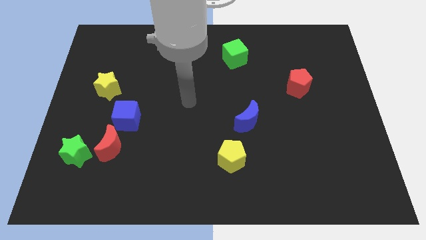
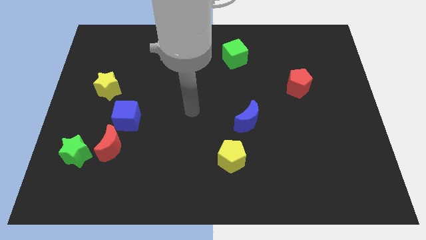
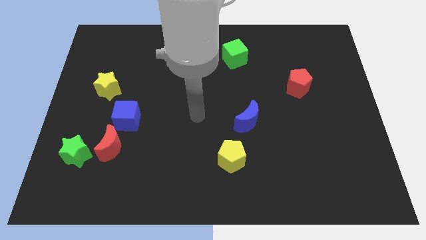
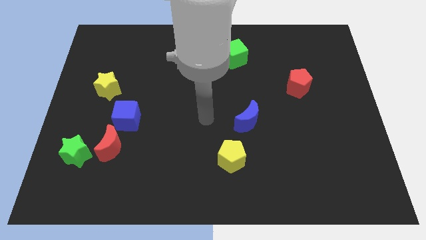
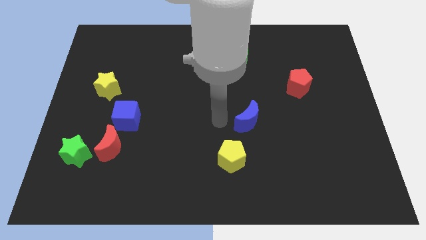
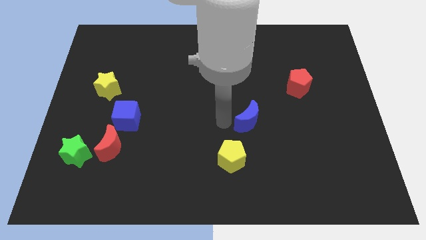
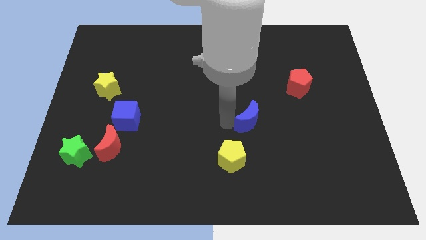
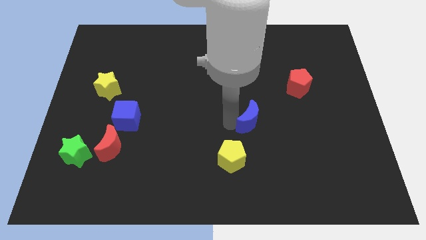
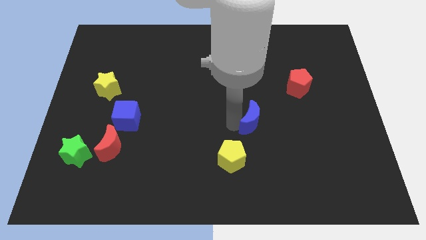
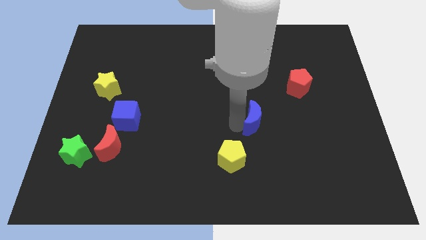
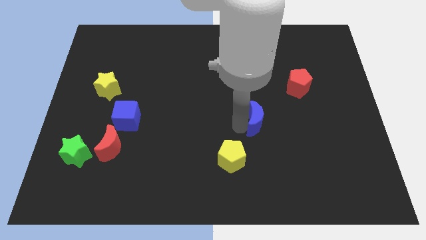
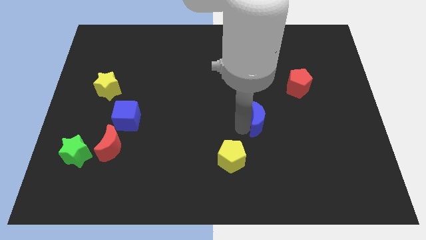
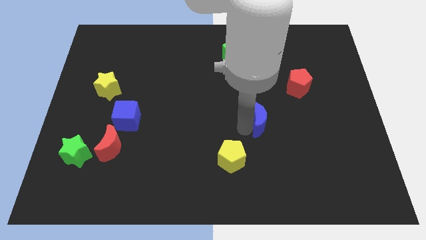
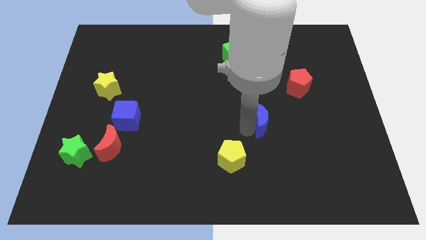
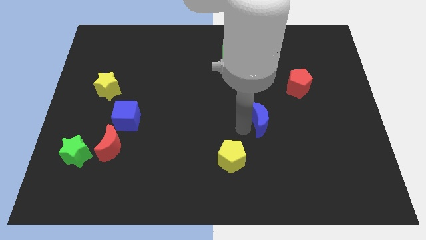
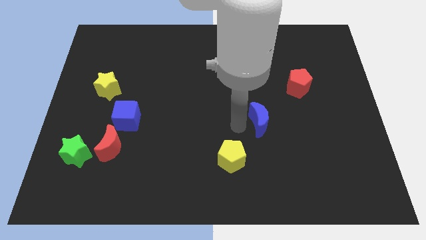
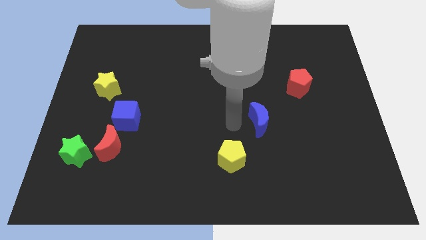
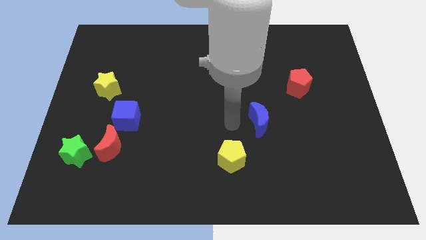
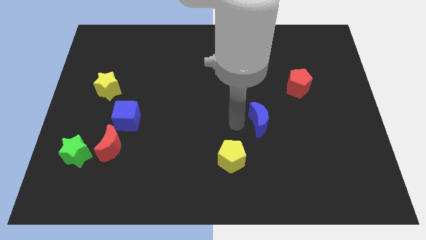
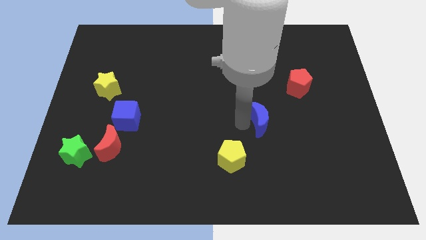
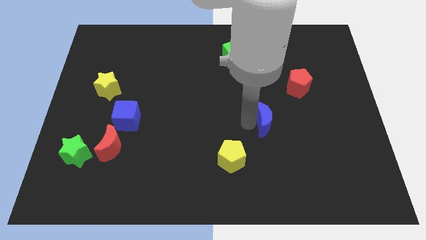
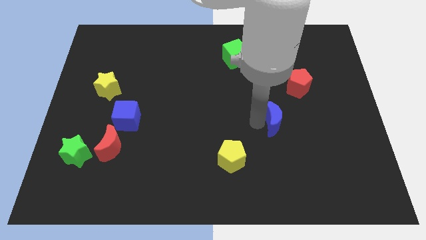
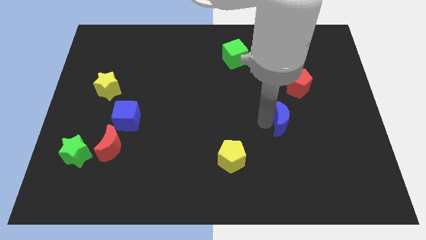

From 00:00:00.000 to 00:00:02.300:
slightly slide the blue moon right

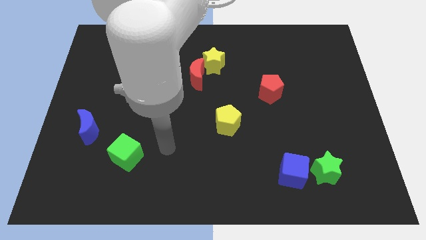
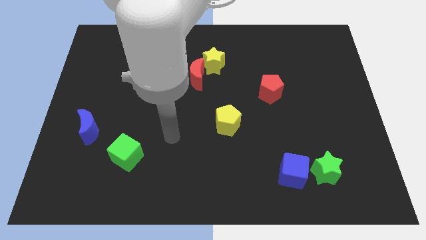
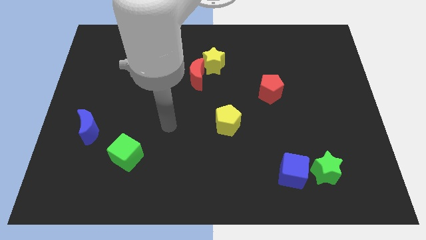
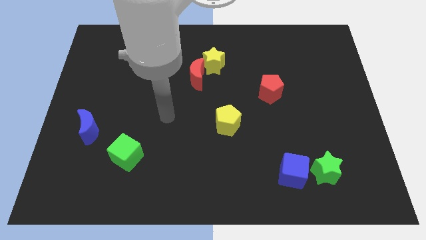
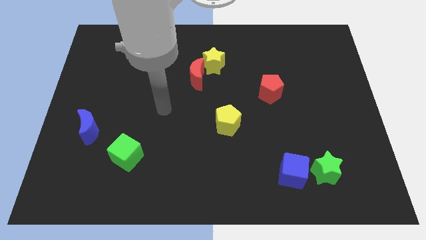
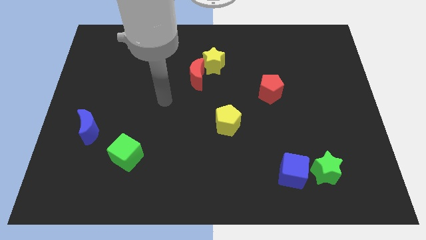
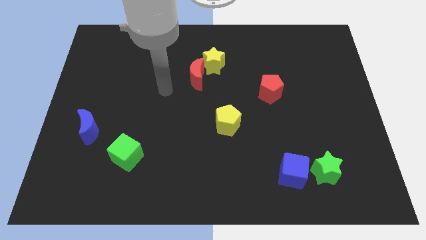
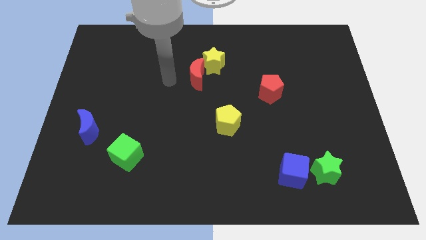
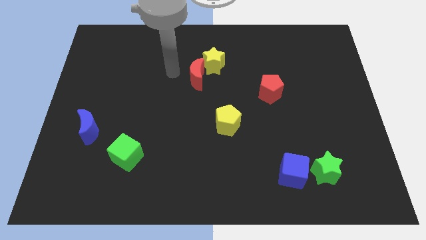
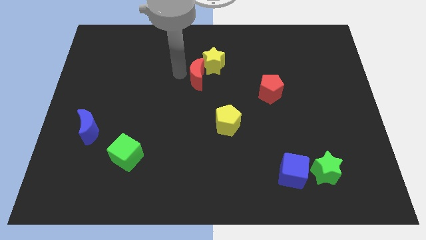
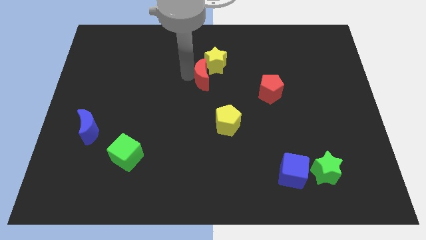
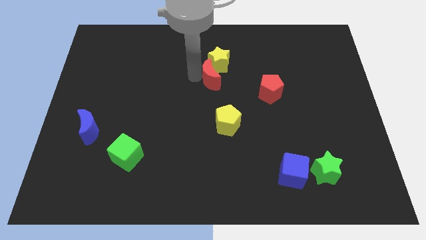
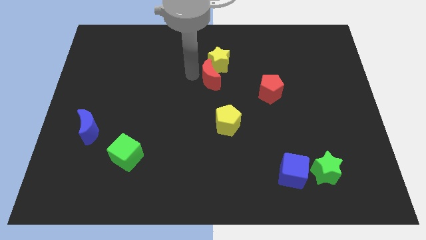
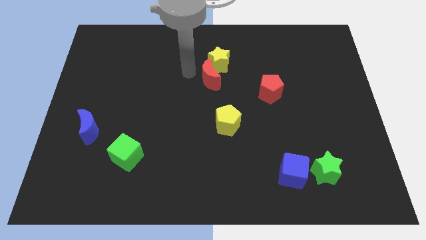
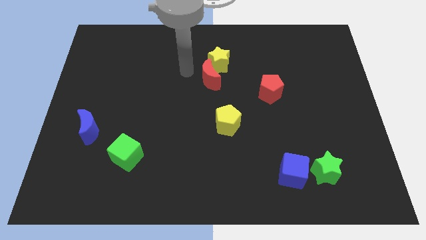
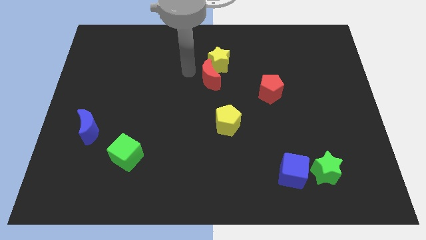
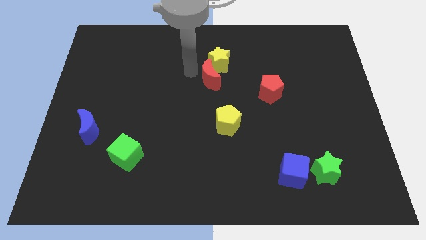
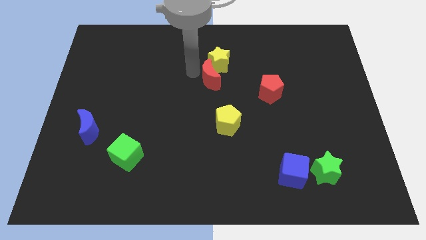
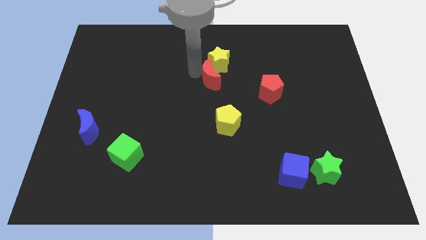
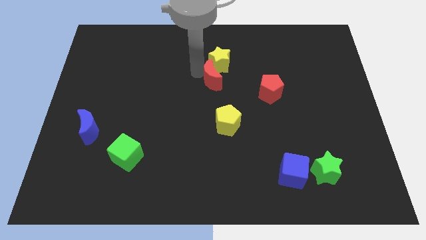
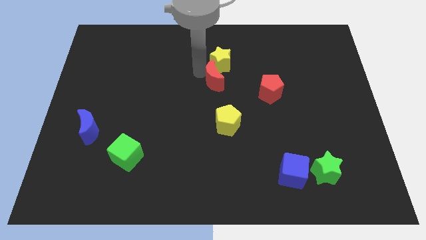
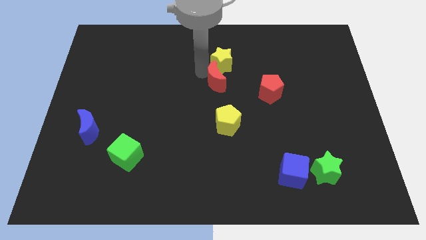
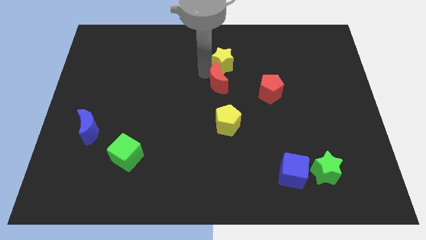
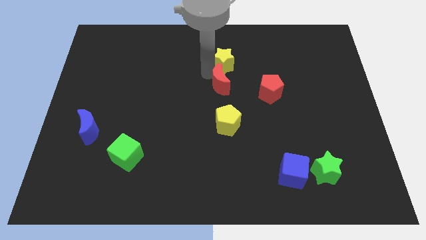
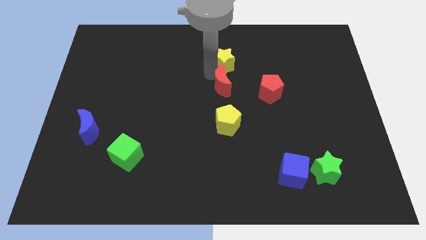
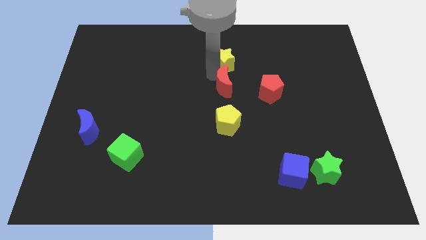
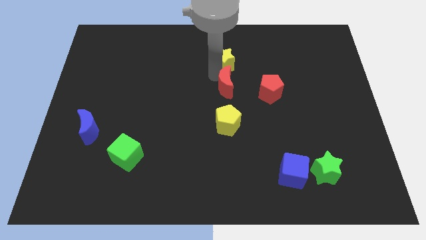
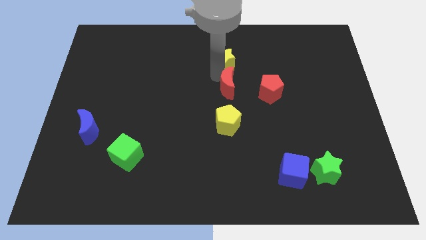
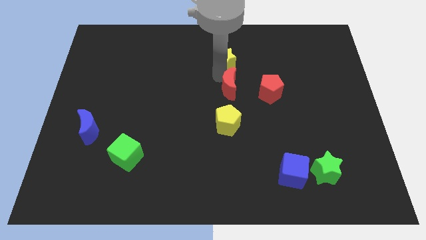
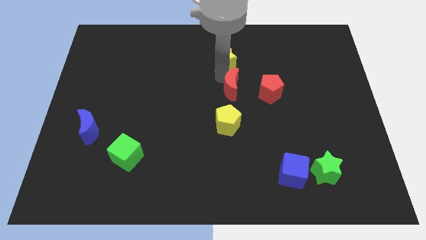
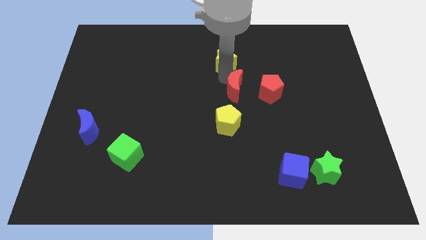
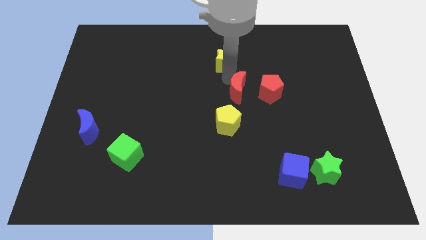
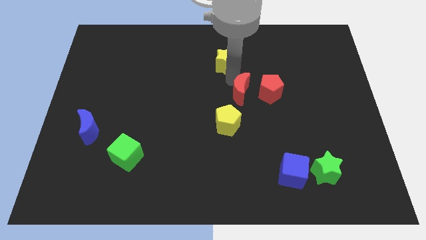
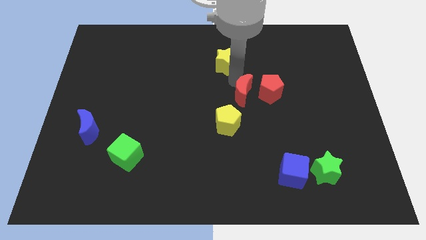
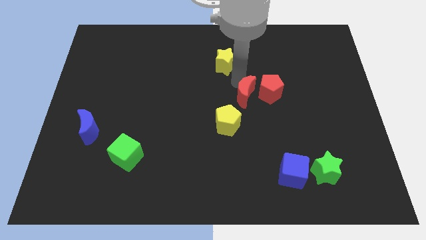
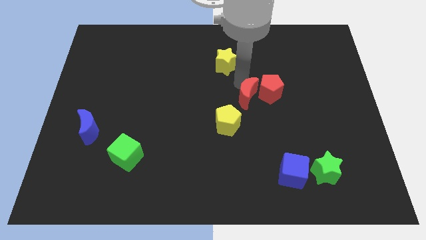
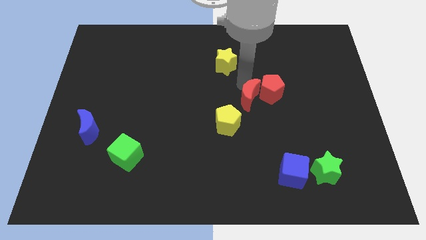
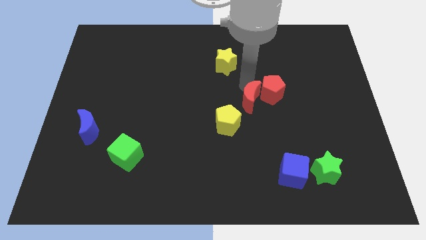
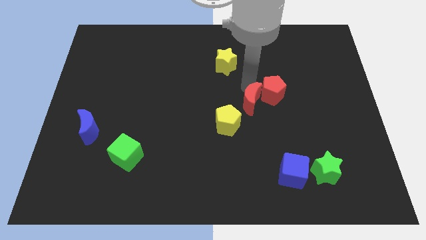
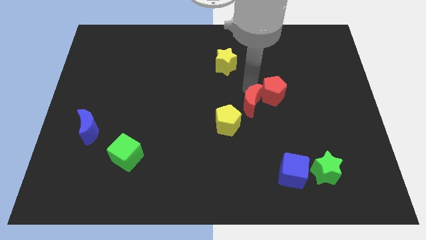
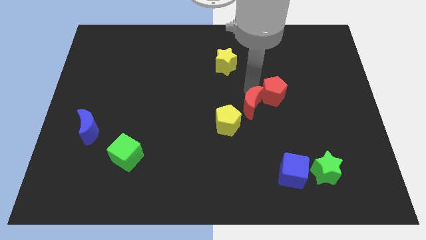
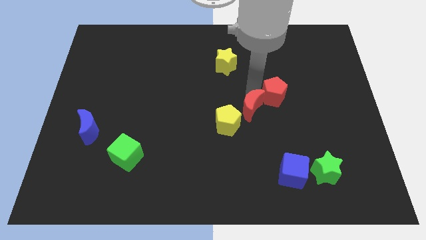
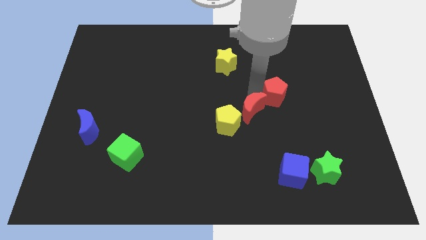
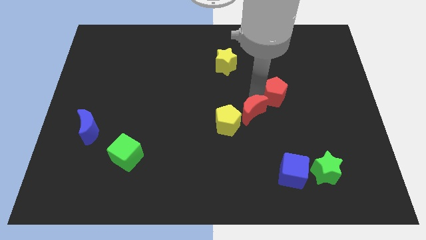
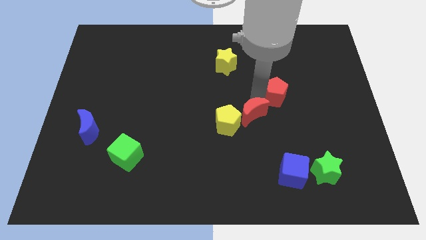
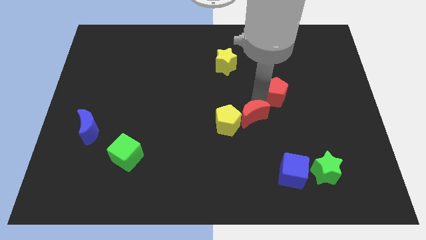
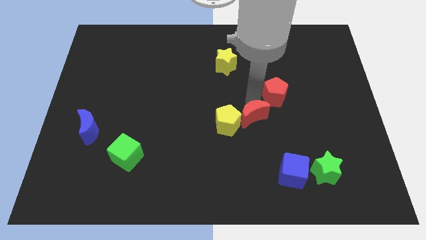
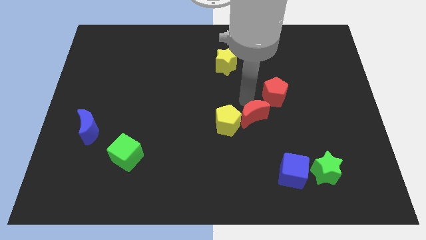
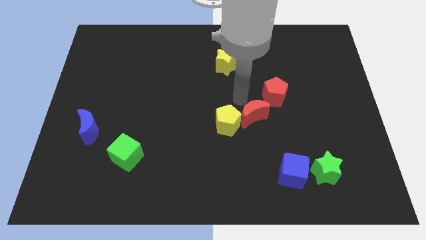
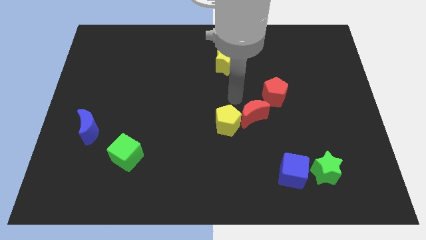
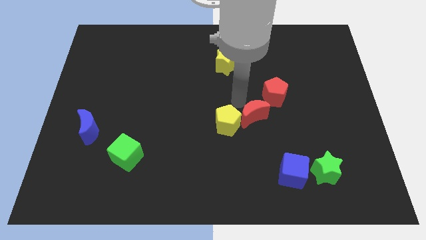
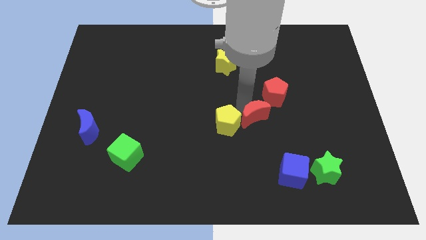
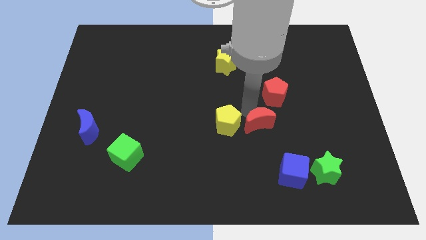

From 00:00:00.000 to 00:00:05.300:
push the red moon down and then to the right

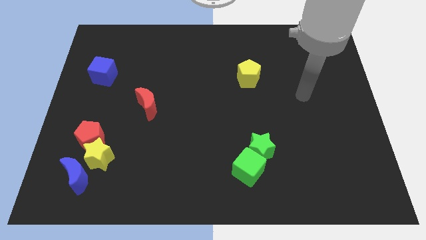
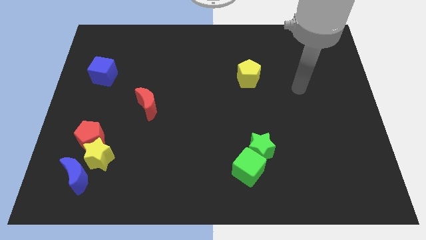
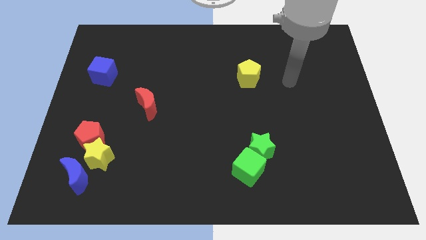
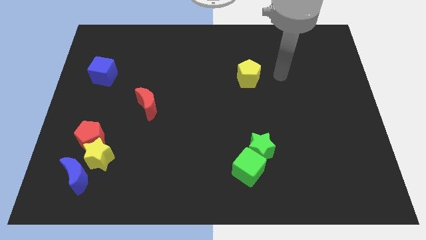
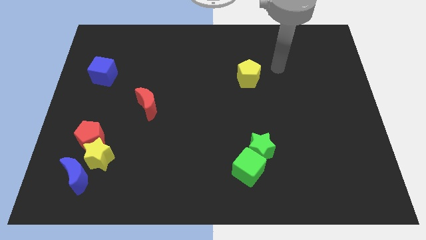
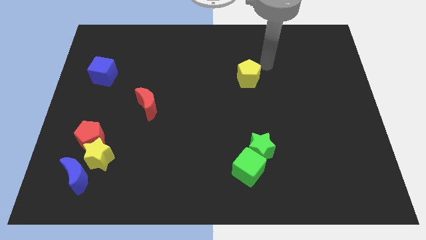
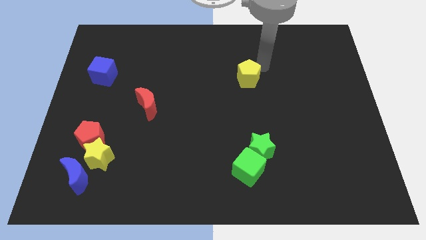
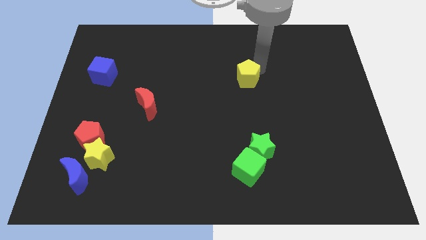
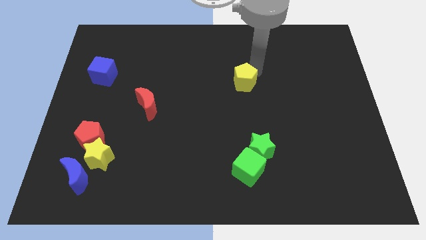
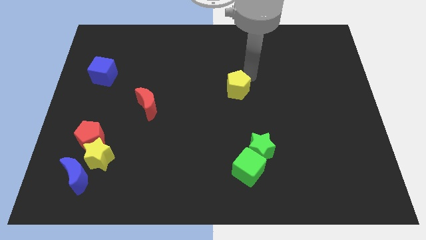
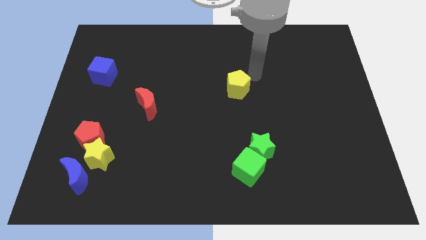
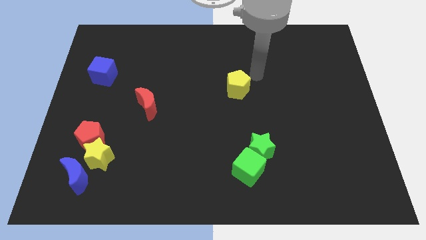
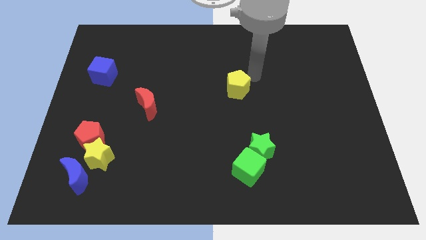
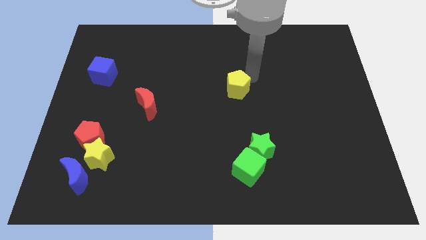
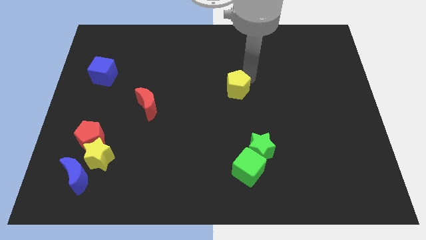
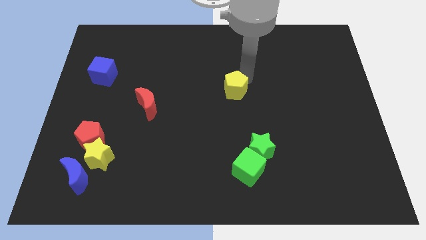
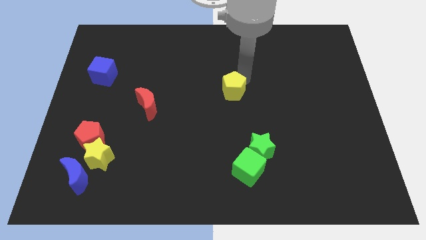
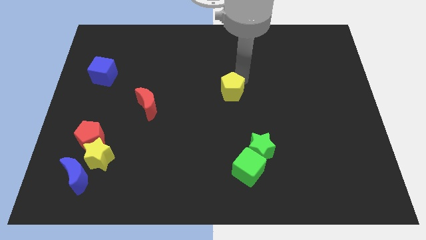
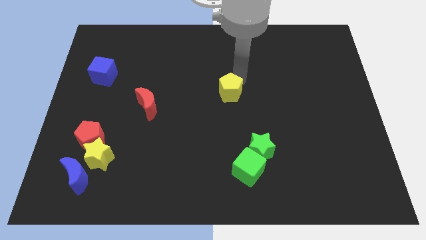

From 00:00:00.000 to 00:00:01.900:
slightly push the yellow pentagon diagonally downwards and to the left
